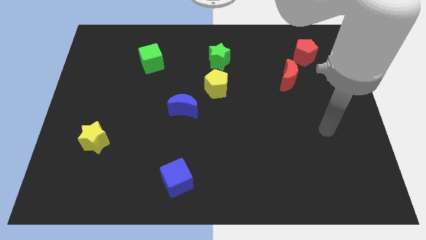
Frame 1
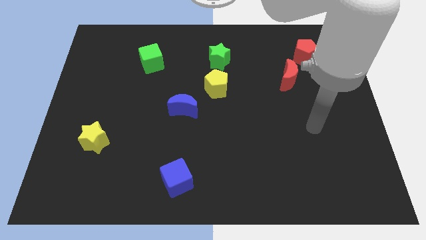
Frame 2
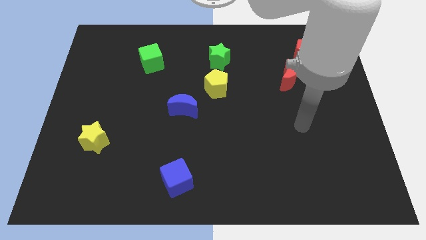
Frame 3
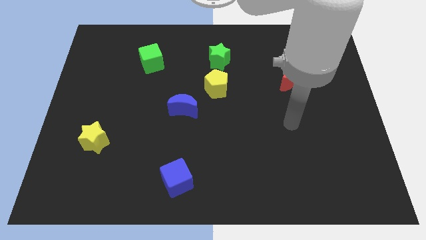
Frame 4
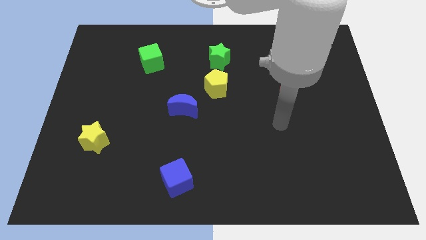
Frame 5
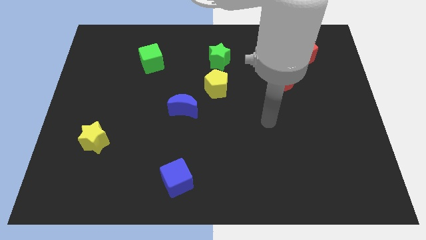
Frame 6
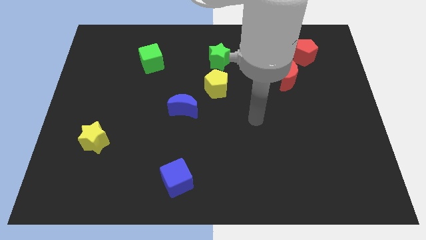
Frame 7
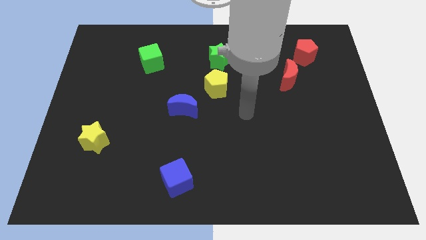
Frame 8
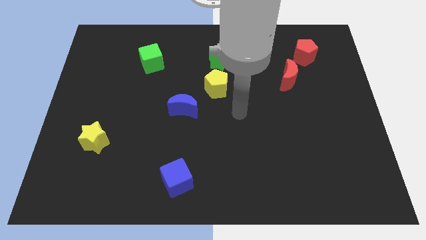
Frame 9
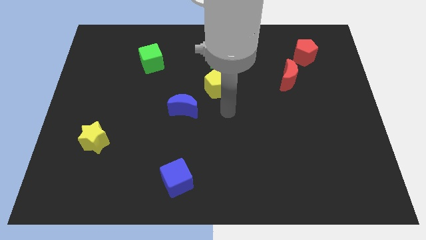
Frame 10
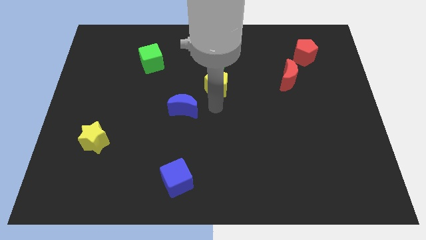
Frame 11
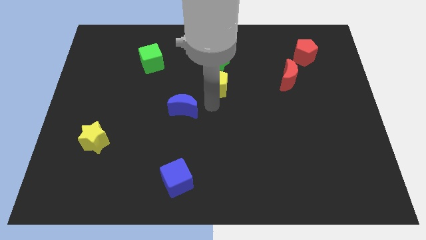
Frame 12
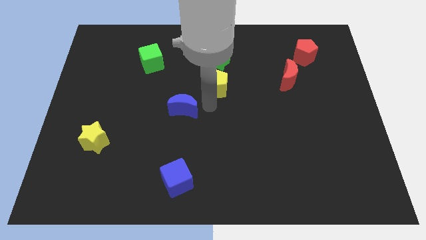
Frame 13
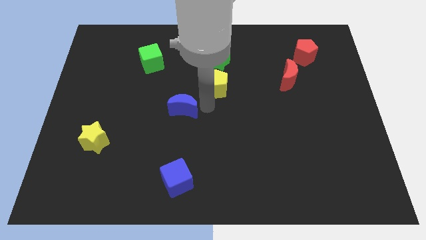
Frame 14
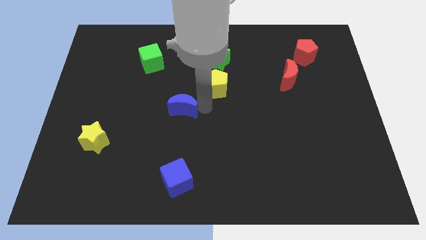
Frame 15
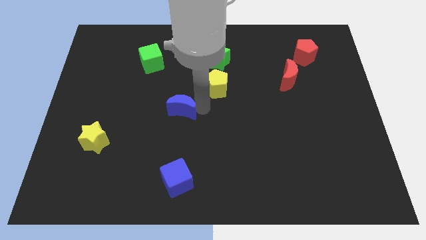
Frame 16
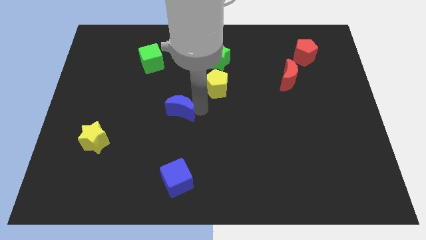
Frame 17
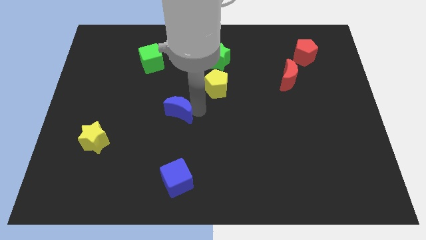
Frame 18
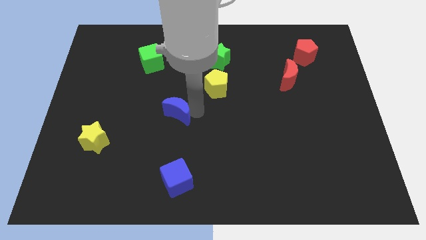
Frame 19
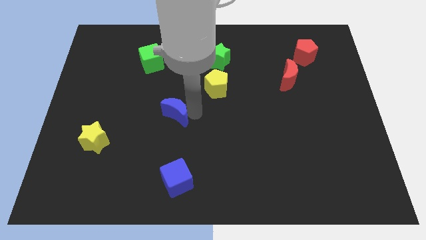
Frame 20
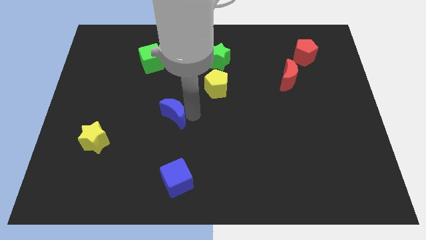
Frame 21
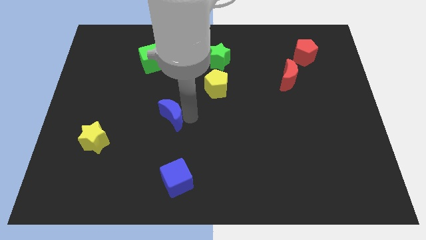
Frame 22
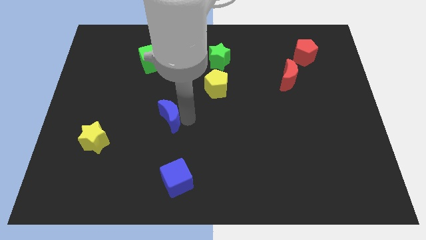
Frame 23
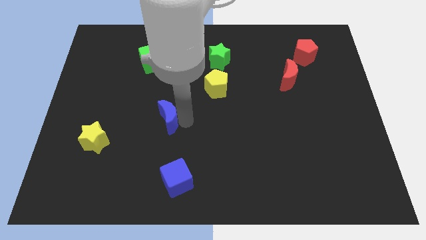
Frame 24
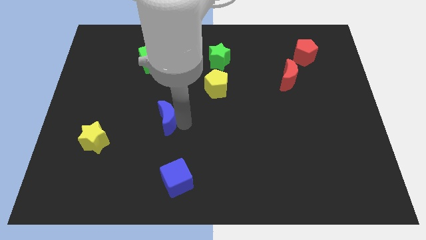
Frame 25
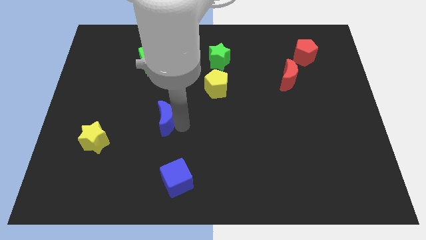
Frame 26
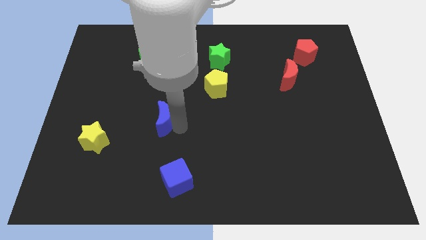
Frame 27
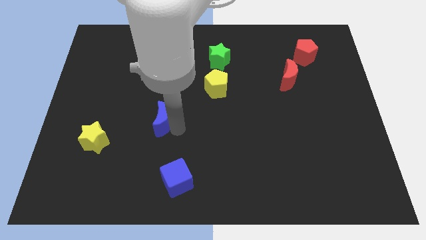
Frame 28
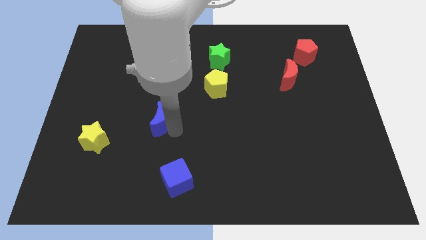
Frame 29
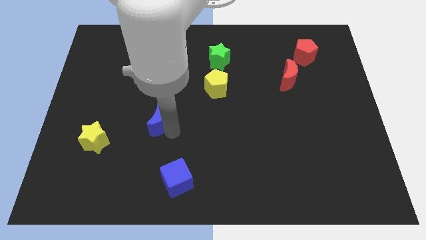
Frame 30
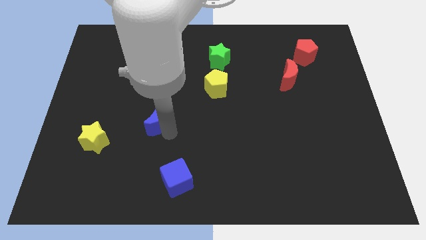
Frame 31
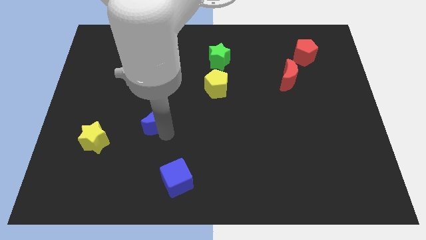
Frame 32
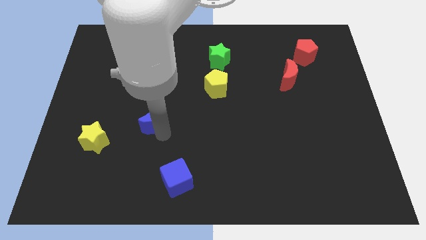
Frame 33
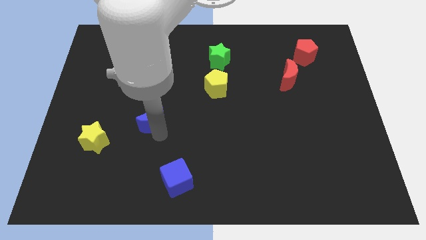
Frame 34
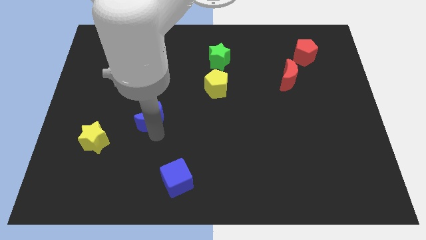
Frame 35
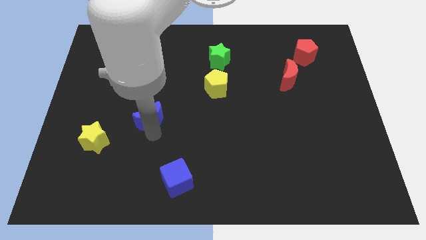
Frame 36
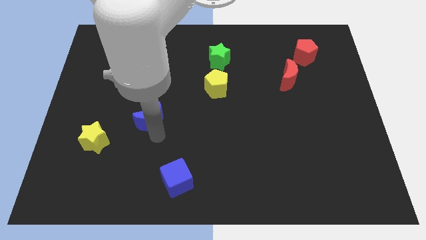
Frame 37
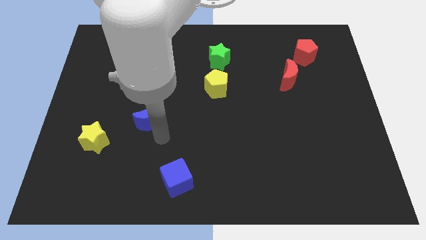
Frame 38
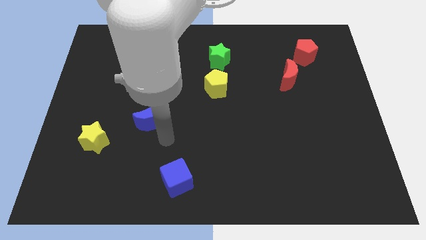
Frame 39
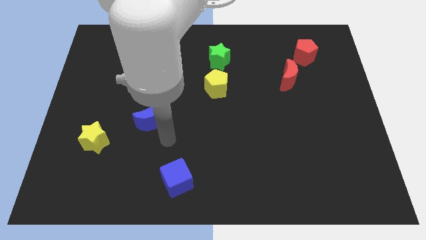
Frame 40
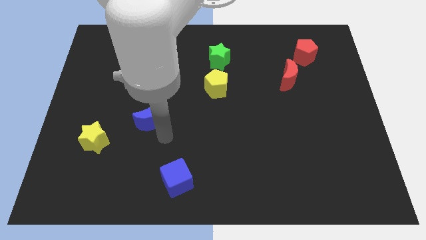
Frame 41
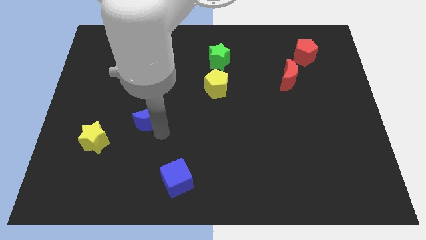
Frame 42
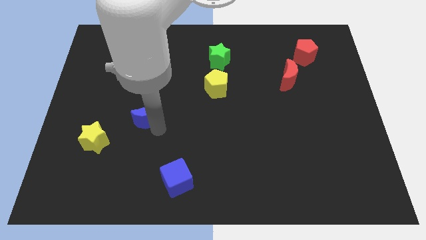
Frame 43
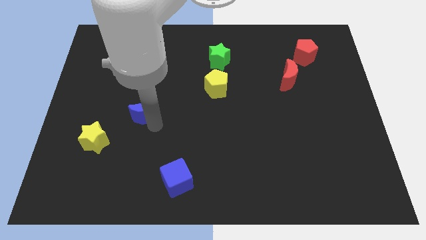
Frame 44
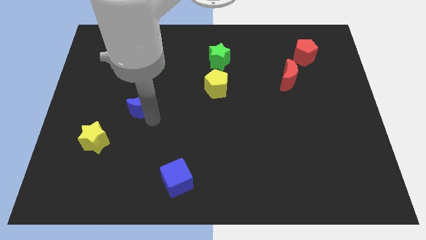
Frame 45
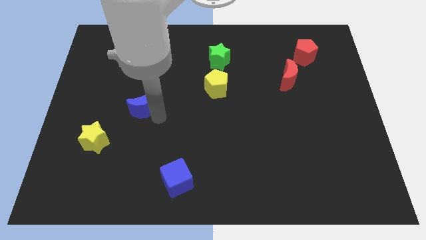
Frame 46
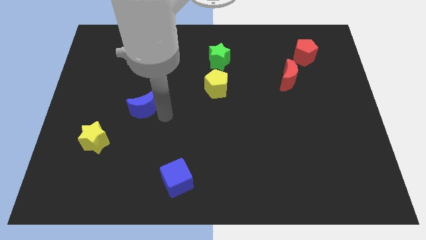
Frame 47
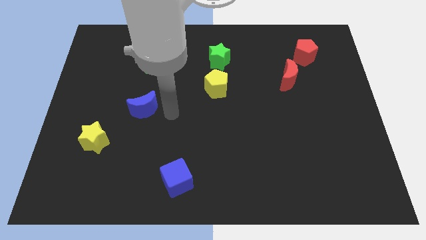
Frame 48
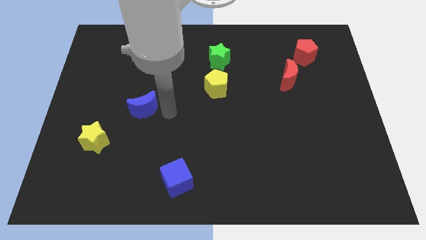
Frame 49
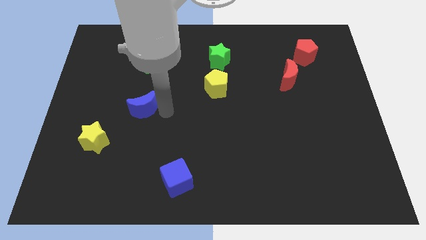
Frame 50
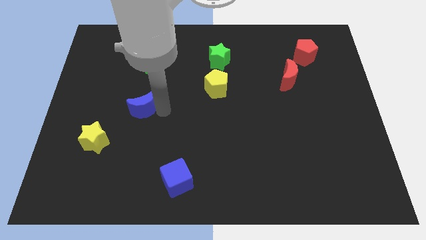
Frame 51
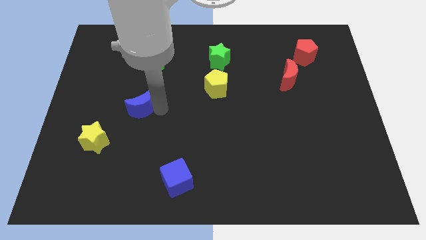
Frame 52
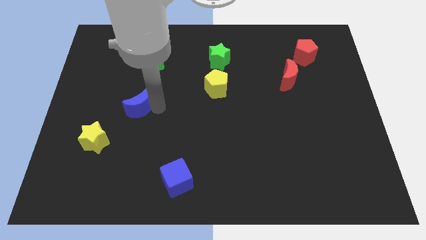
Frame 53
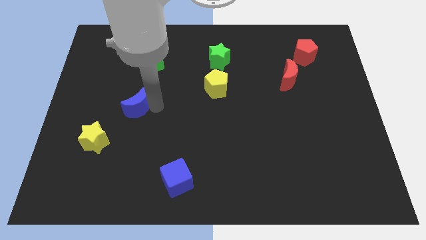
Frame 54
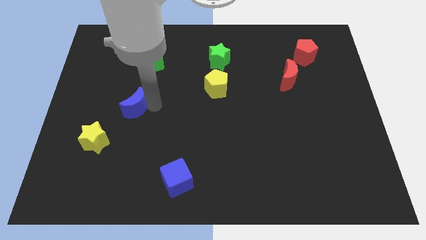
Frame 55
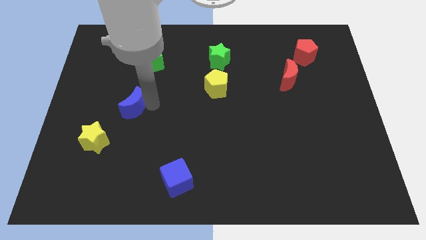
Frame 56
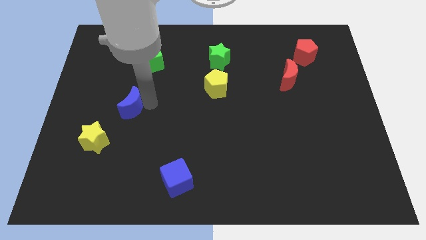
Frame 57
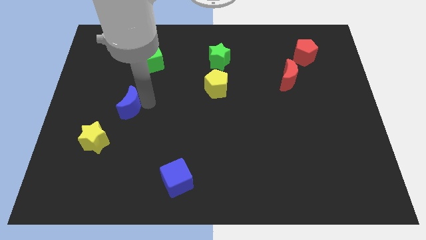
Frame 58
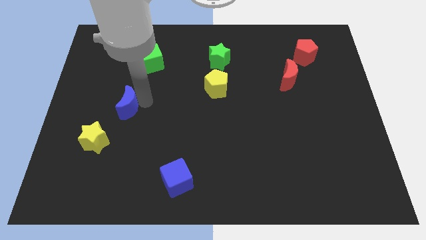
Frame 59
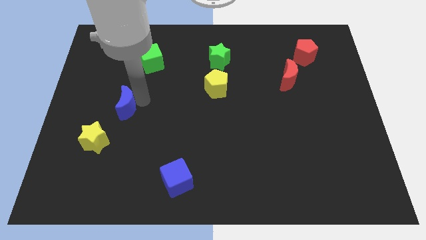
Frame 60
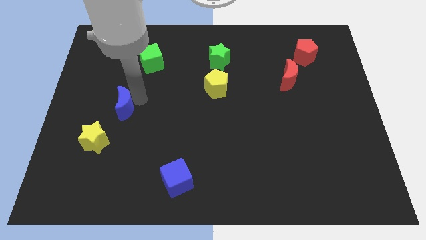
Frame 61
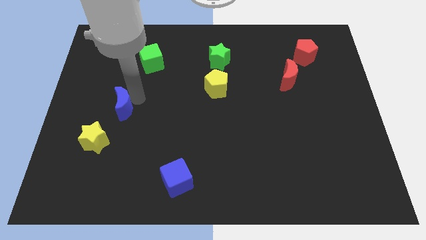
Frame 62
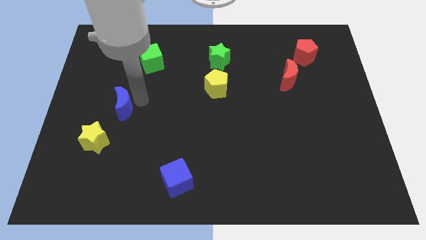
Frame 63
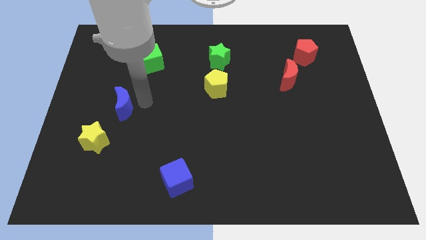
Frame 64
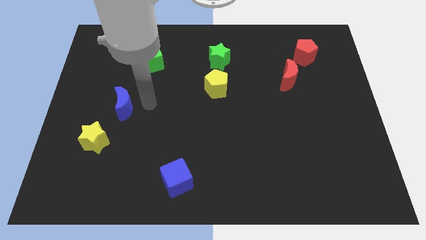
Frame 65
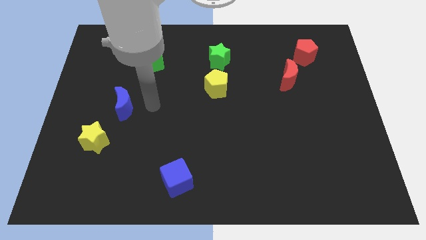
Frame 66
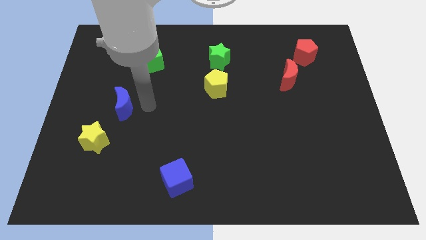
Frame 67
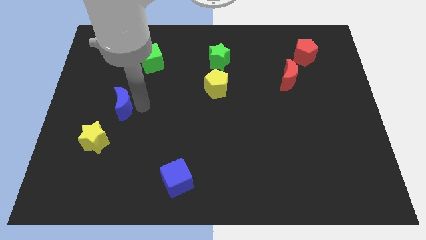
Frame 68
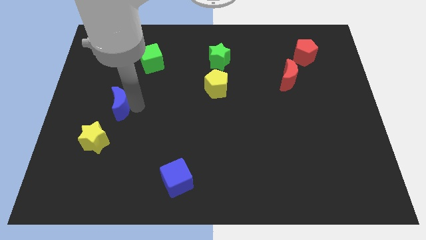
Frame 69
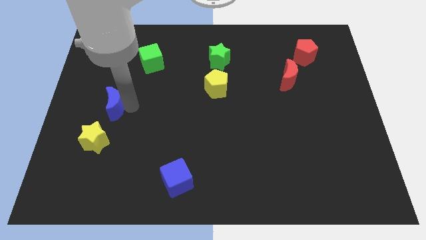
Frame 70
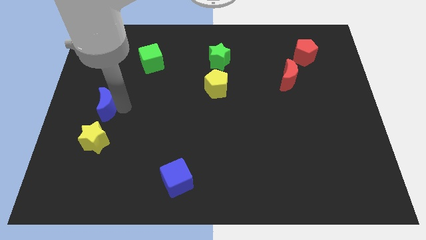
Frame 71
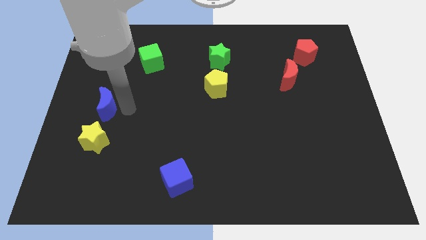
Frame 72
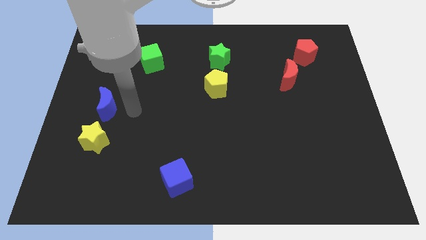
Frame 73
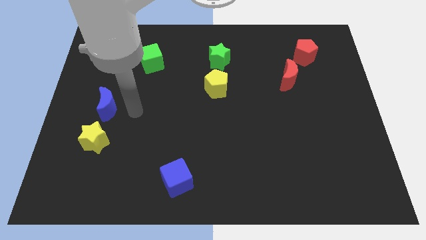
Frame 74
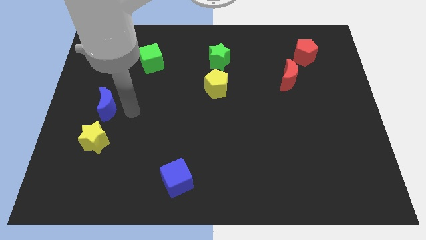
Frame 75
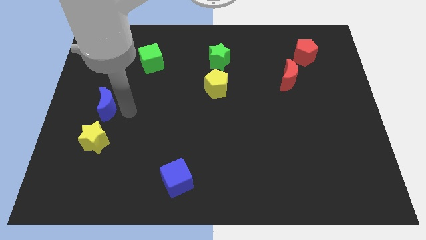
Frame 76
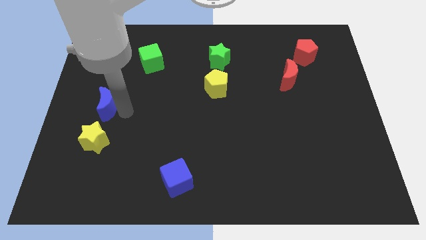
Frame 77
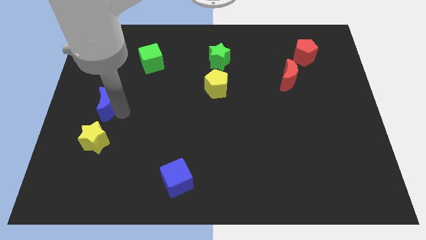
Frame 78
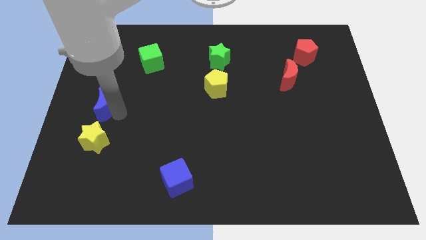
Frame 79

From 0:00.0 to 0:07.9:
put the blue moon to the left side of the board
